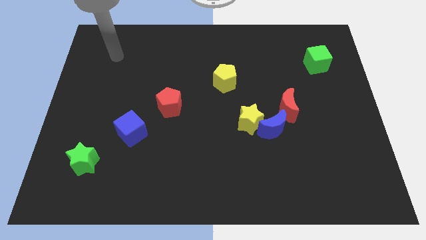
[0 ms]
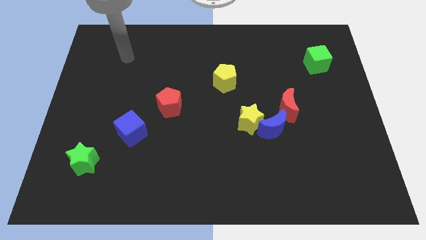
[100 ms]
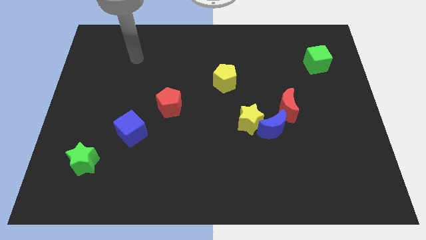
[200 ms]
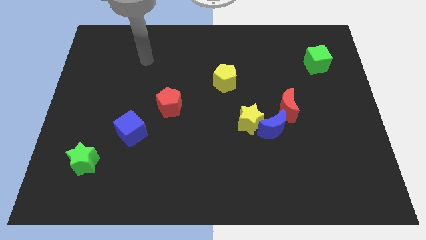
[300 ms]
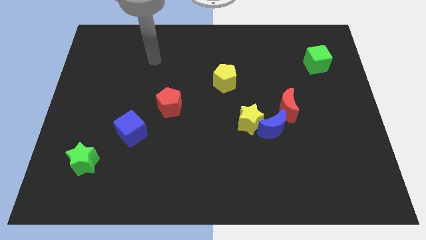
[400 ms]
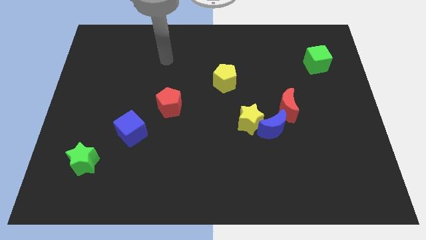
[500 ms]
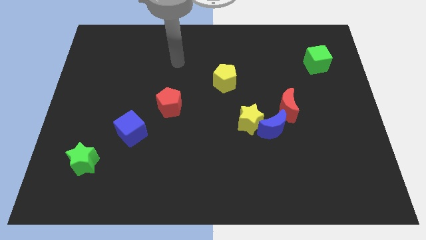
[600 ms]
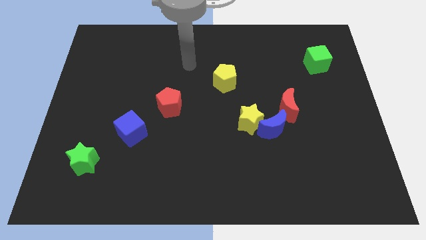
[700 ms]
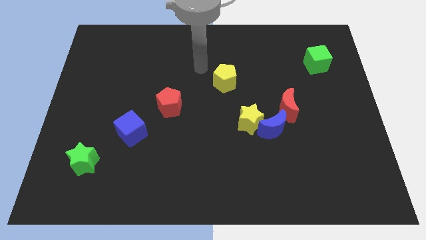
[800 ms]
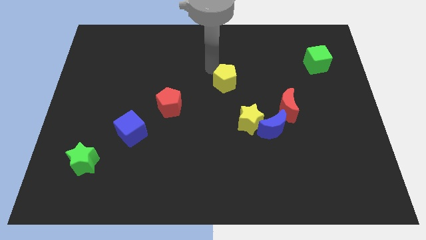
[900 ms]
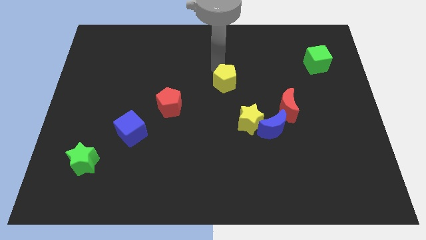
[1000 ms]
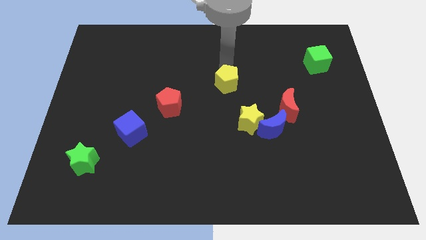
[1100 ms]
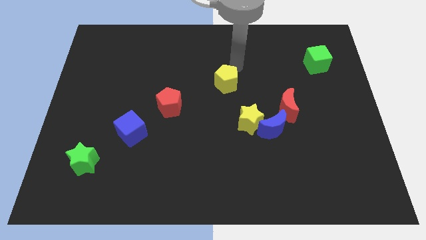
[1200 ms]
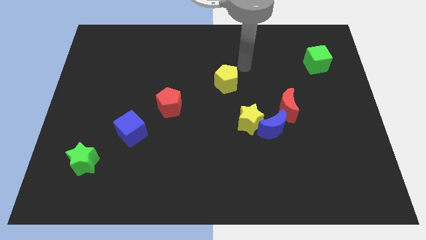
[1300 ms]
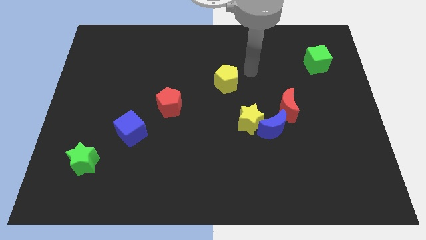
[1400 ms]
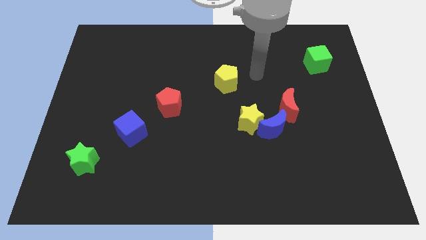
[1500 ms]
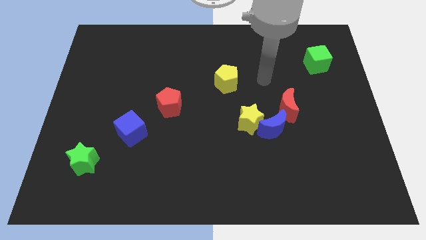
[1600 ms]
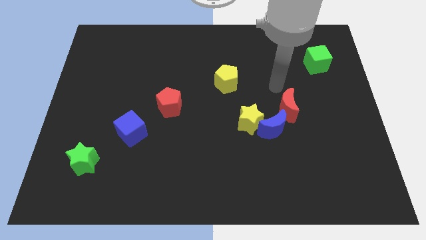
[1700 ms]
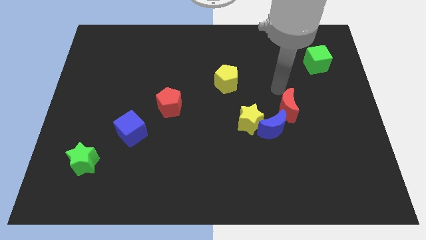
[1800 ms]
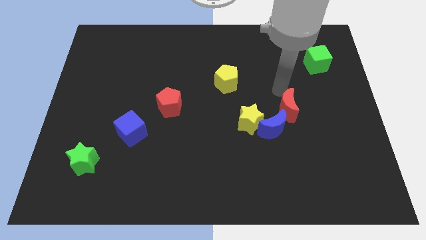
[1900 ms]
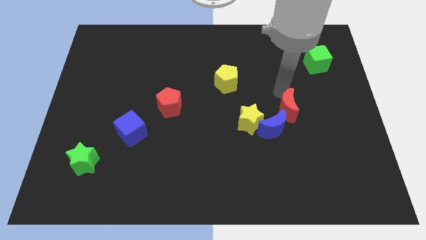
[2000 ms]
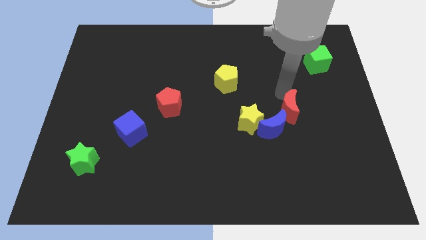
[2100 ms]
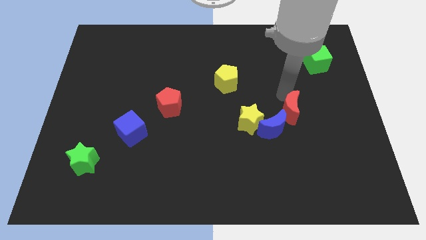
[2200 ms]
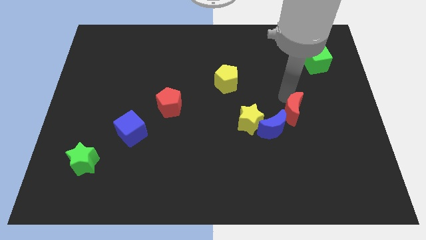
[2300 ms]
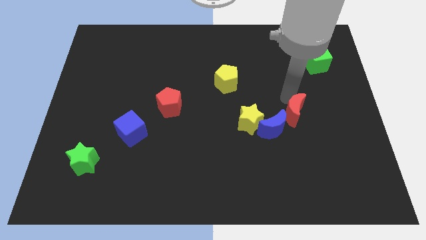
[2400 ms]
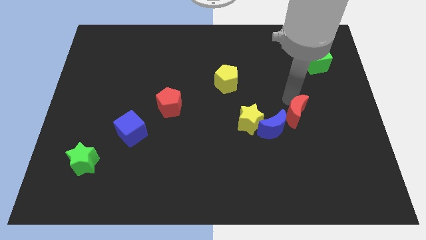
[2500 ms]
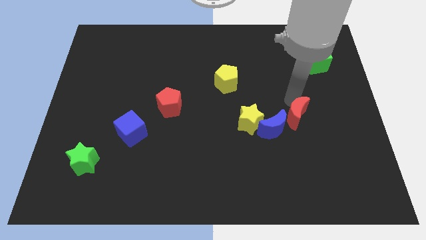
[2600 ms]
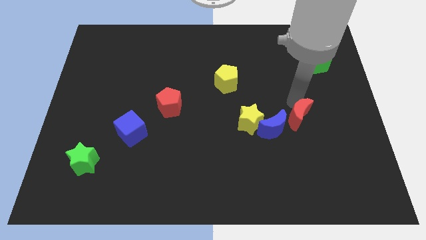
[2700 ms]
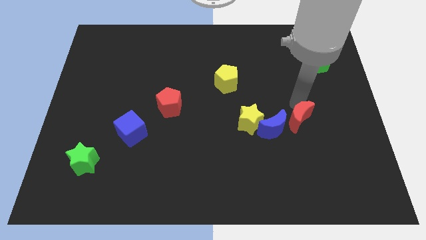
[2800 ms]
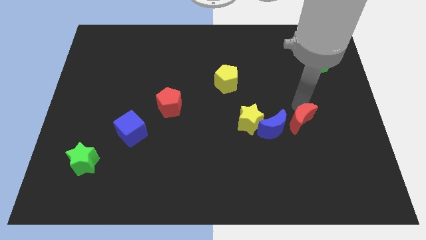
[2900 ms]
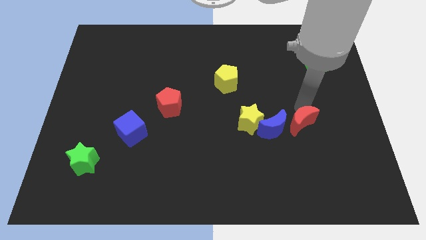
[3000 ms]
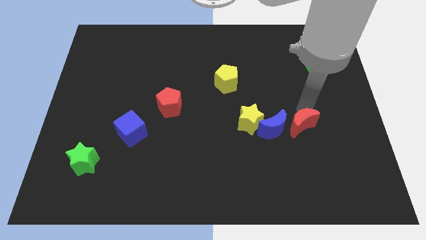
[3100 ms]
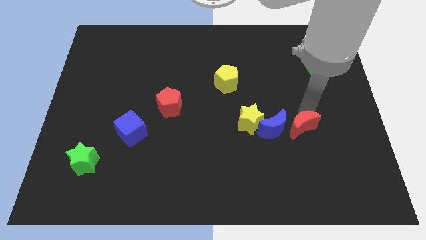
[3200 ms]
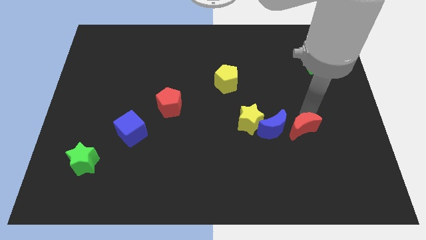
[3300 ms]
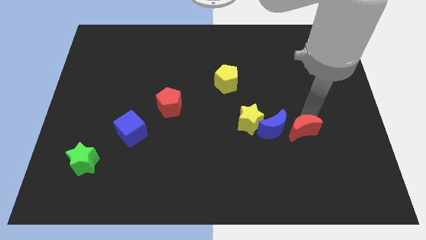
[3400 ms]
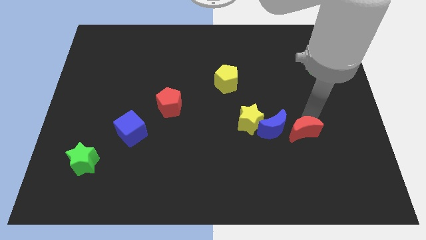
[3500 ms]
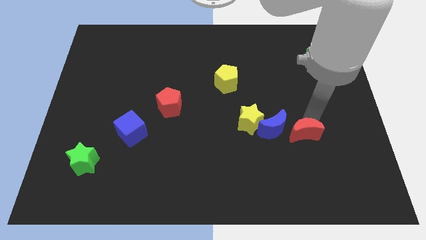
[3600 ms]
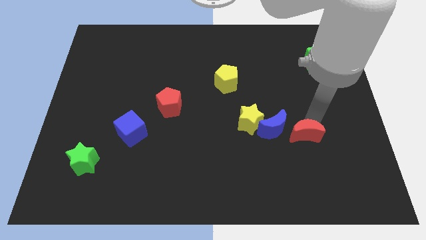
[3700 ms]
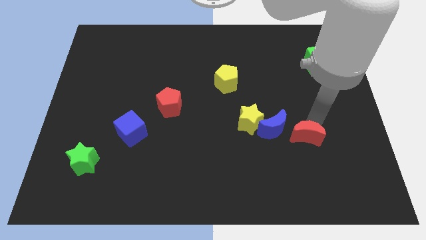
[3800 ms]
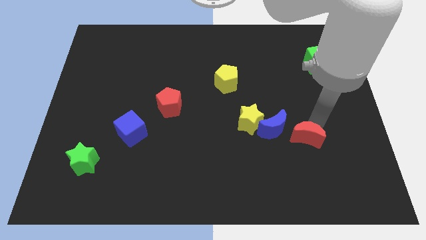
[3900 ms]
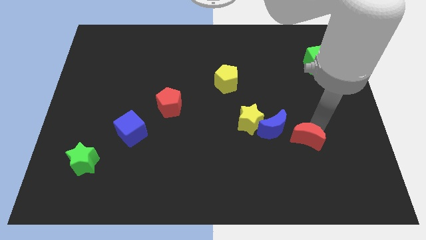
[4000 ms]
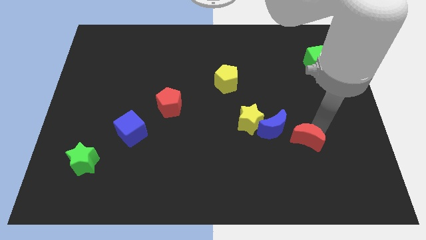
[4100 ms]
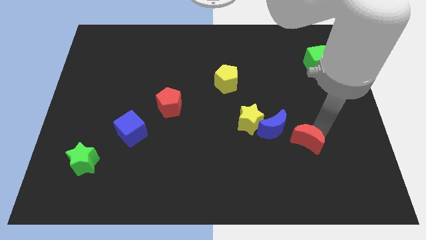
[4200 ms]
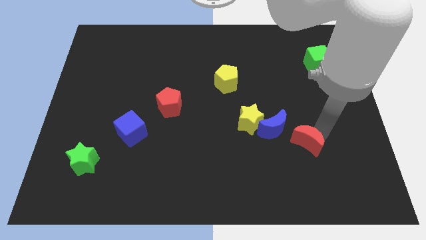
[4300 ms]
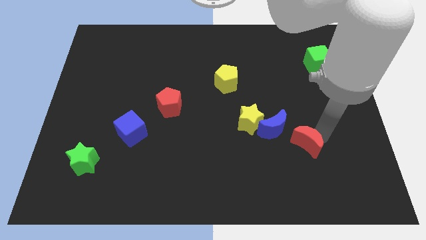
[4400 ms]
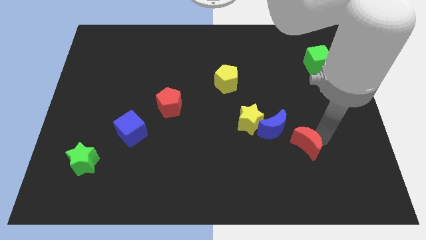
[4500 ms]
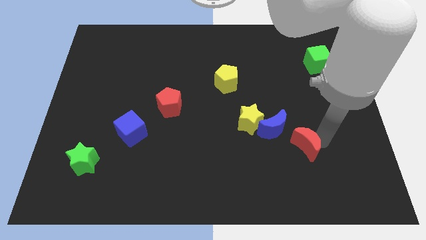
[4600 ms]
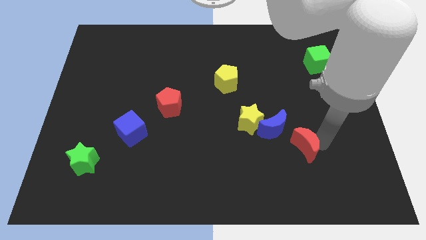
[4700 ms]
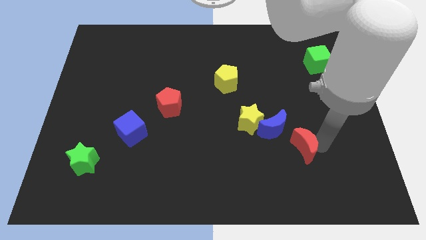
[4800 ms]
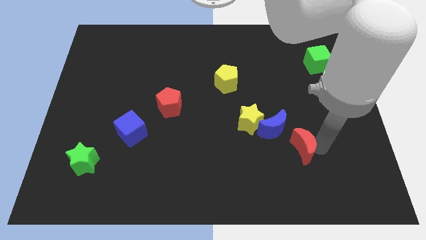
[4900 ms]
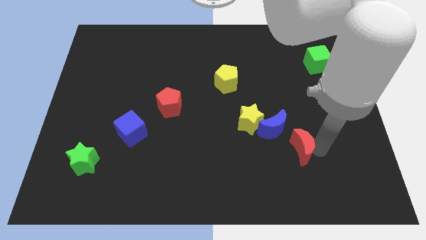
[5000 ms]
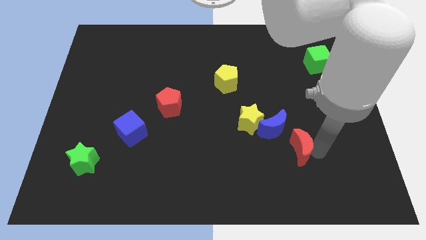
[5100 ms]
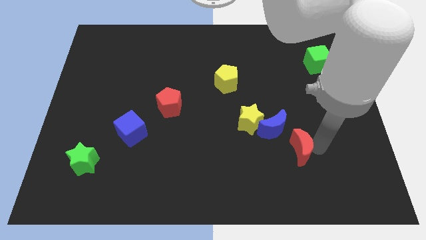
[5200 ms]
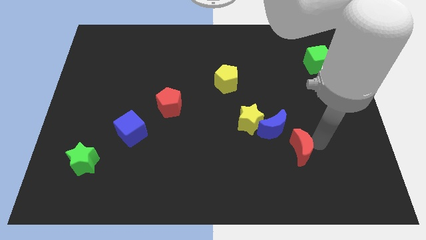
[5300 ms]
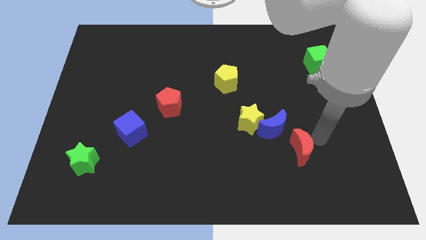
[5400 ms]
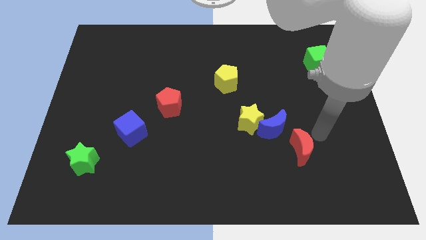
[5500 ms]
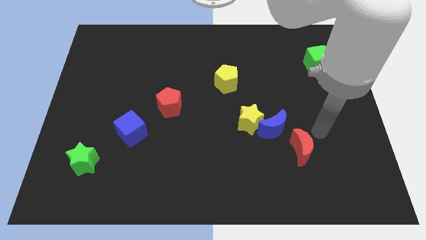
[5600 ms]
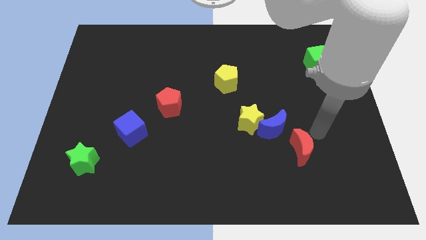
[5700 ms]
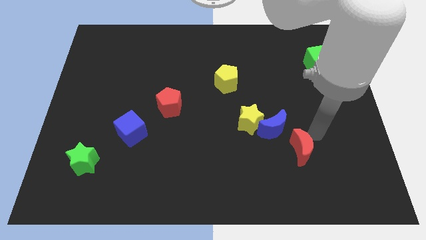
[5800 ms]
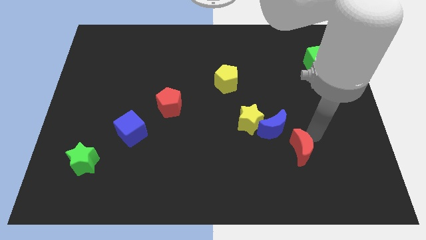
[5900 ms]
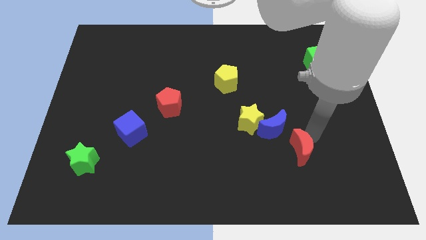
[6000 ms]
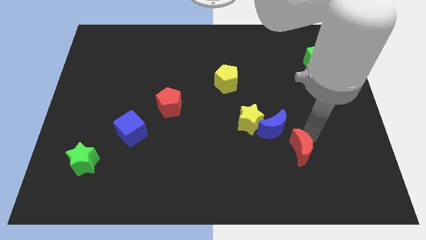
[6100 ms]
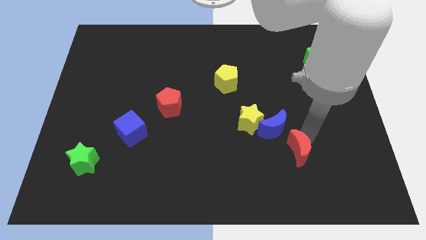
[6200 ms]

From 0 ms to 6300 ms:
move the red moon to the bottom right side of the yellow star

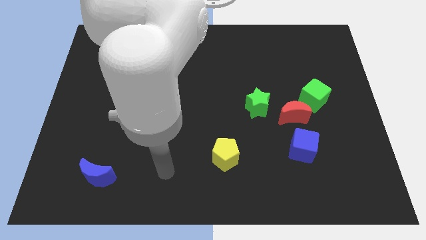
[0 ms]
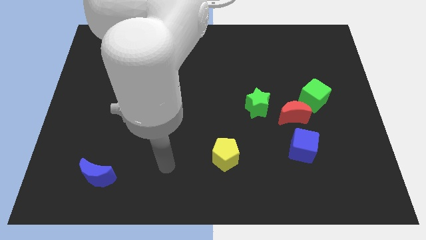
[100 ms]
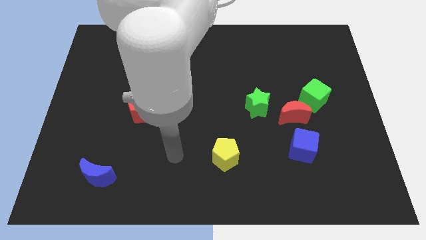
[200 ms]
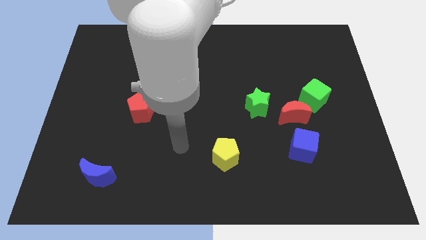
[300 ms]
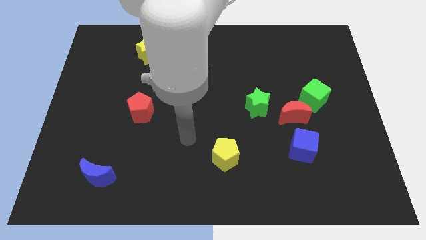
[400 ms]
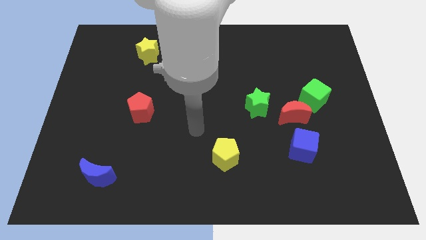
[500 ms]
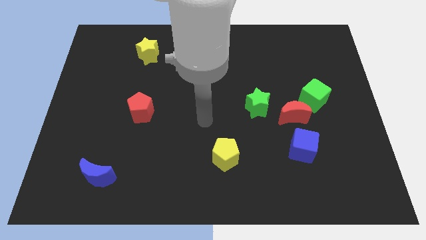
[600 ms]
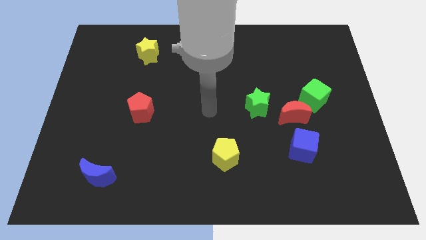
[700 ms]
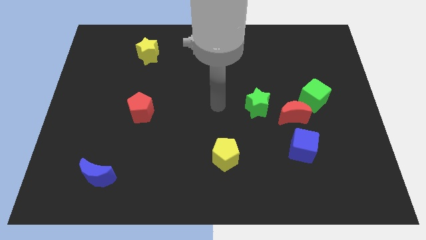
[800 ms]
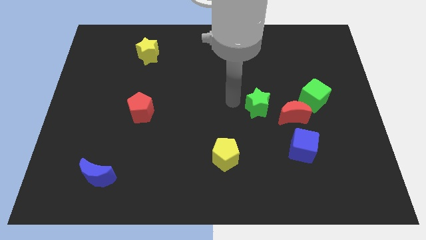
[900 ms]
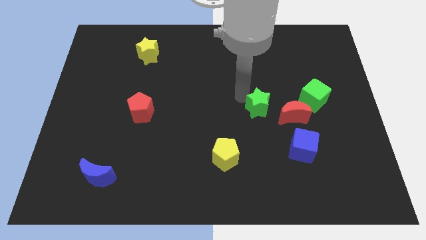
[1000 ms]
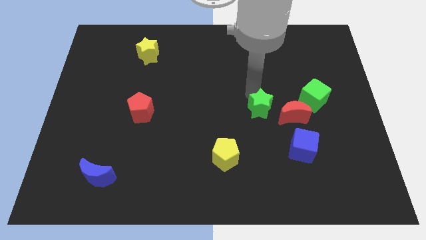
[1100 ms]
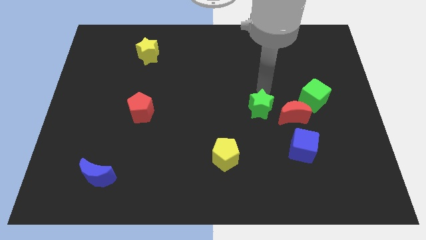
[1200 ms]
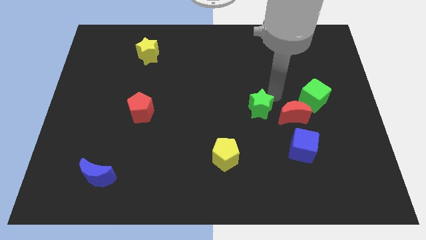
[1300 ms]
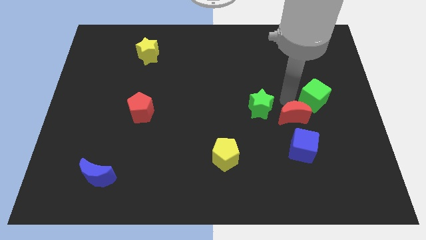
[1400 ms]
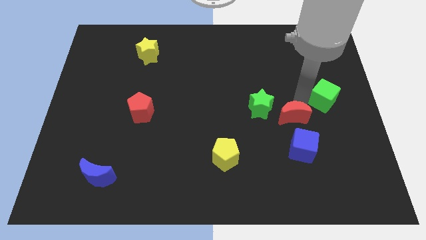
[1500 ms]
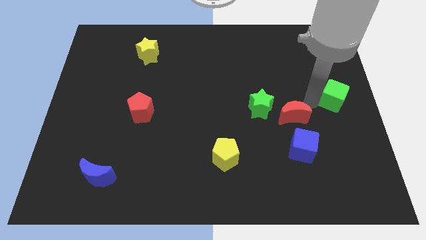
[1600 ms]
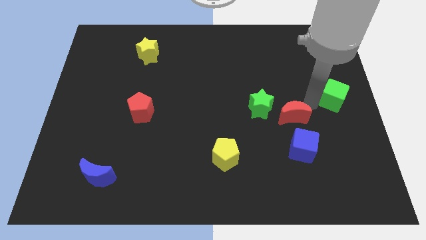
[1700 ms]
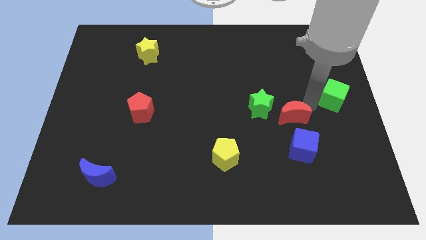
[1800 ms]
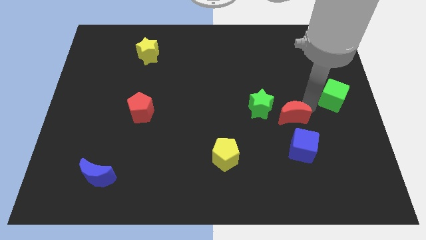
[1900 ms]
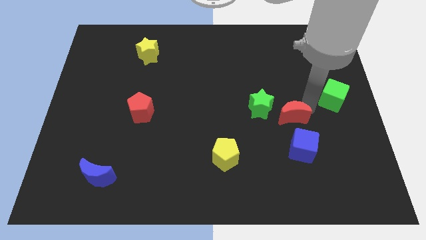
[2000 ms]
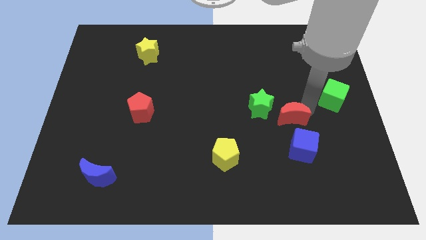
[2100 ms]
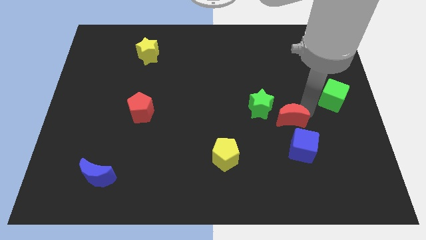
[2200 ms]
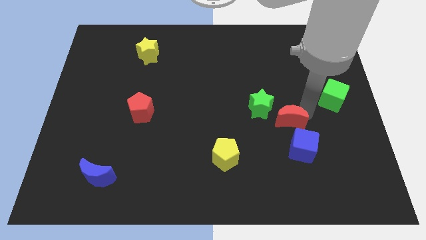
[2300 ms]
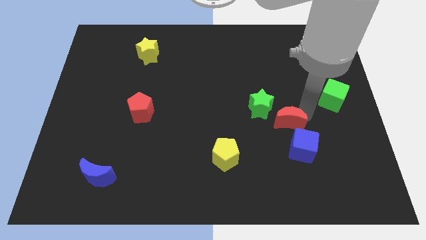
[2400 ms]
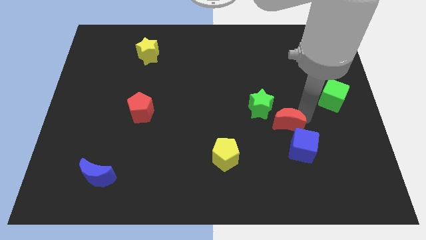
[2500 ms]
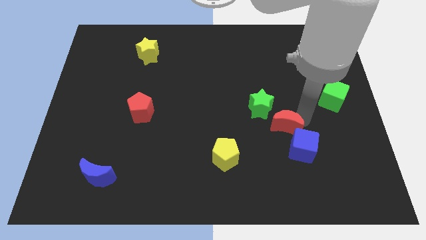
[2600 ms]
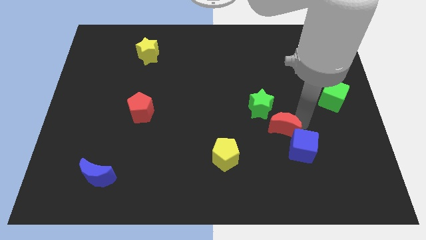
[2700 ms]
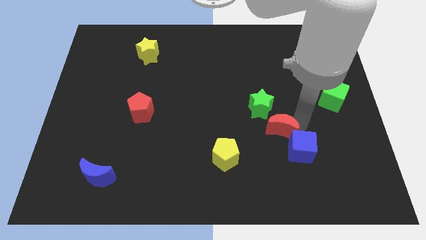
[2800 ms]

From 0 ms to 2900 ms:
push the red moon below the green star
